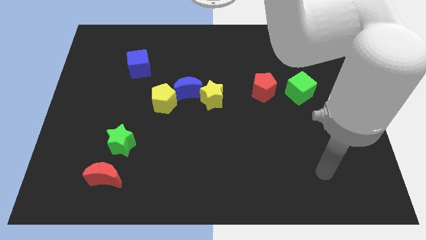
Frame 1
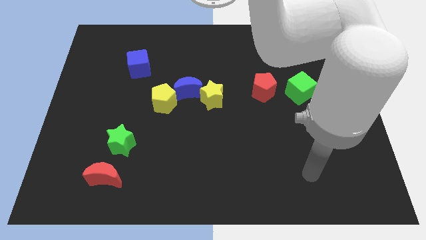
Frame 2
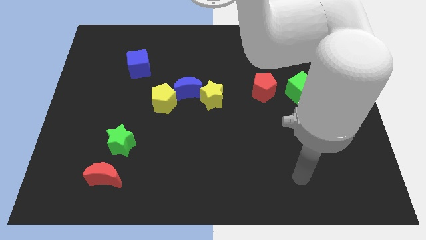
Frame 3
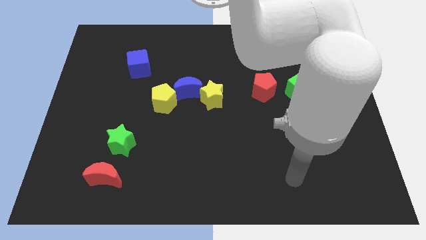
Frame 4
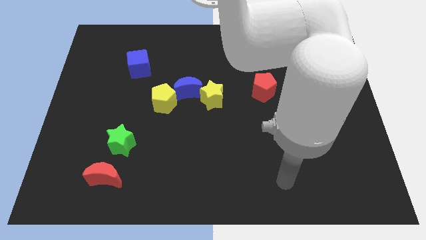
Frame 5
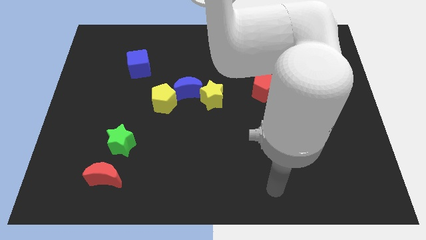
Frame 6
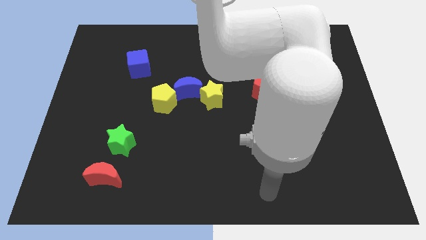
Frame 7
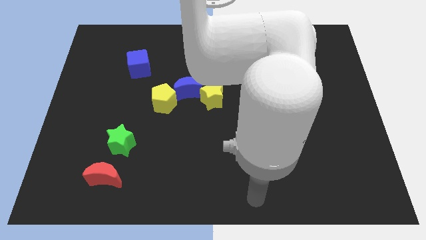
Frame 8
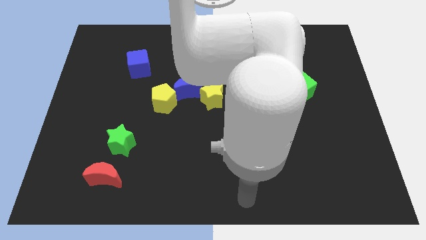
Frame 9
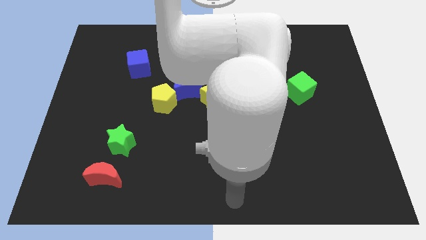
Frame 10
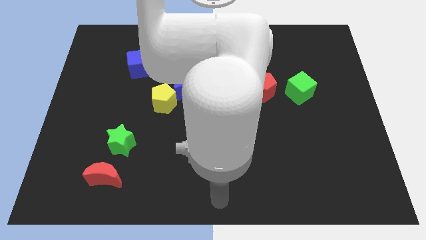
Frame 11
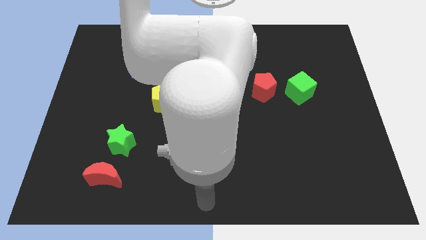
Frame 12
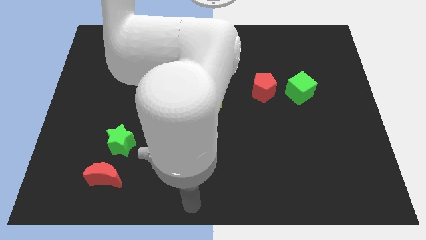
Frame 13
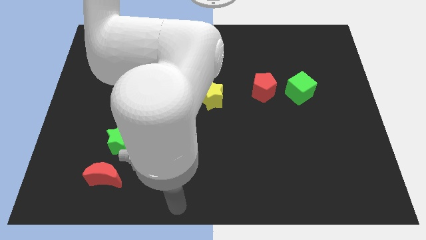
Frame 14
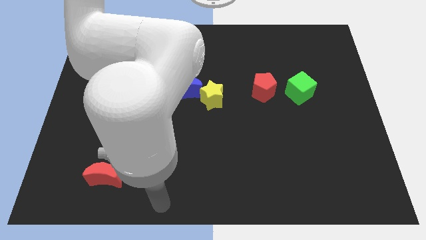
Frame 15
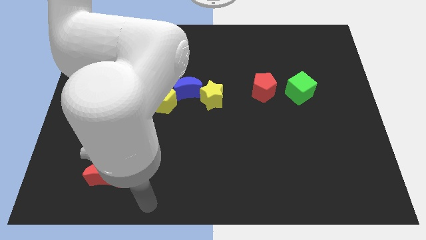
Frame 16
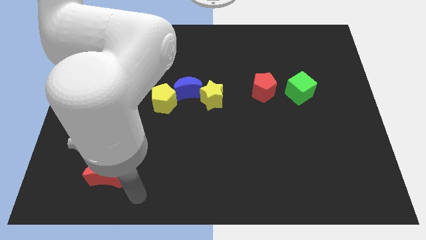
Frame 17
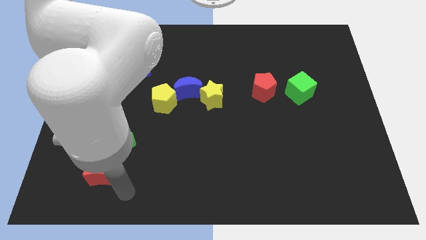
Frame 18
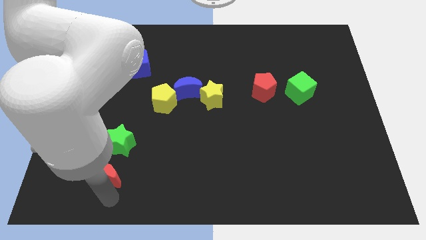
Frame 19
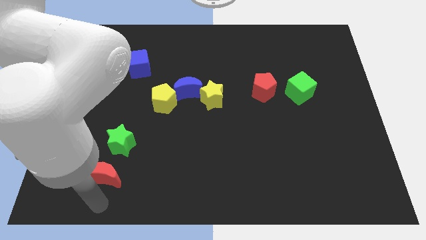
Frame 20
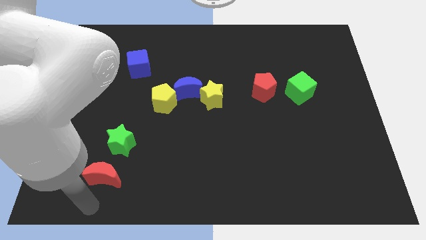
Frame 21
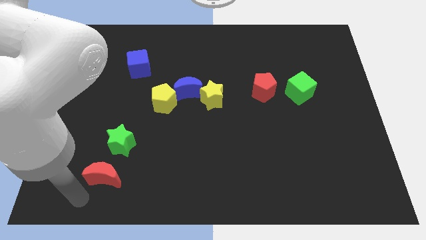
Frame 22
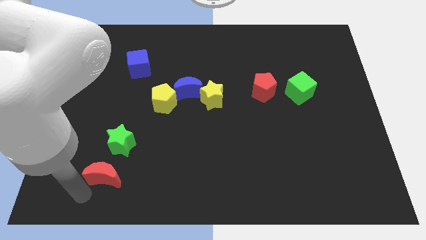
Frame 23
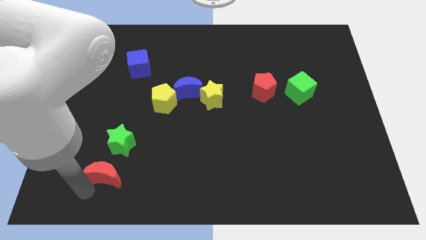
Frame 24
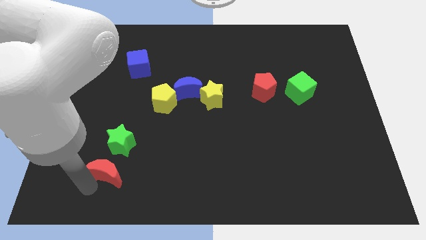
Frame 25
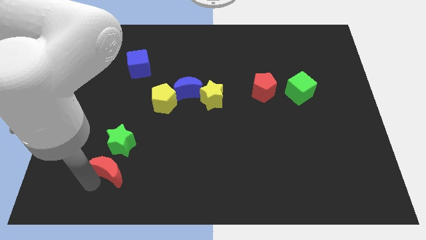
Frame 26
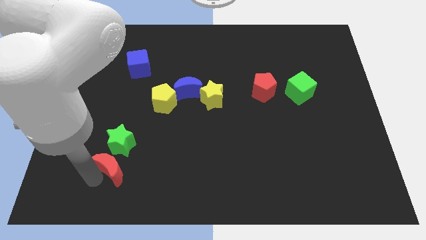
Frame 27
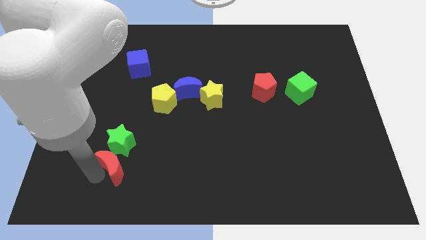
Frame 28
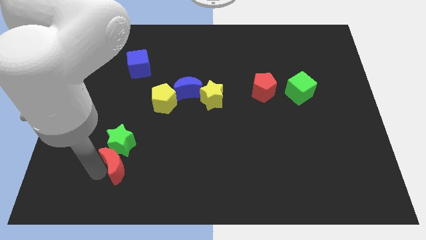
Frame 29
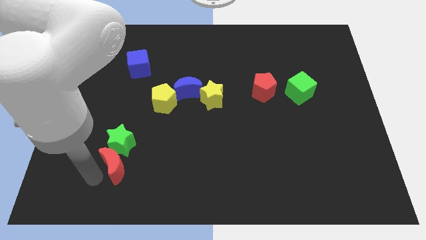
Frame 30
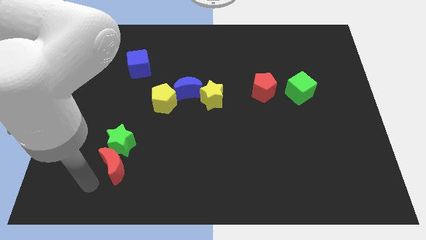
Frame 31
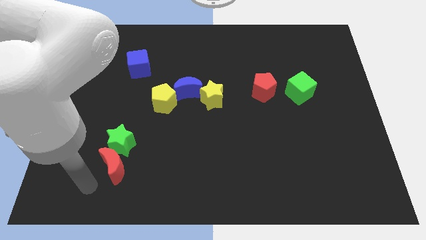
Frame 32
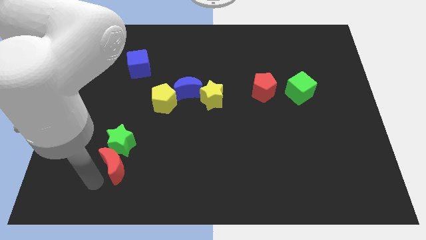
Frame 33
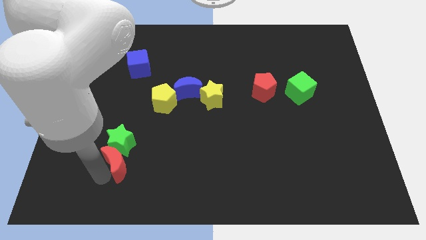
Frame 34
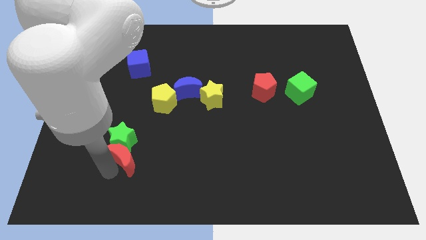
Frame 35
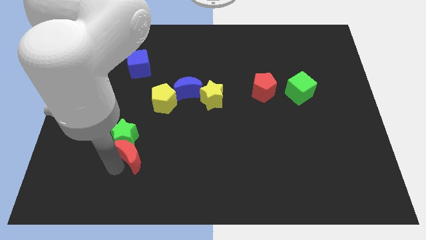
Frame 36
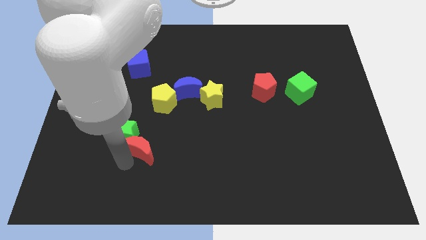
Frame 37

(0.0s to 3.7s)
move the red moon a little bit up and then to the right

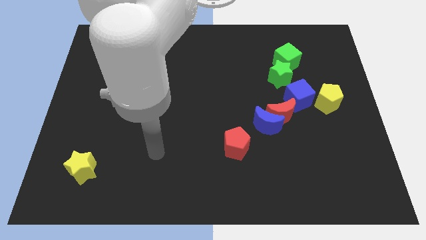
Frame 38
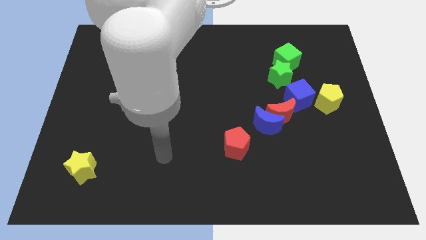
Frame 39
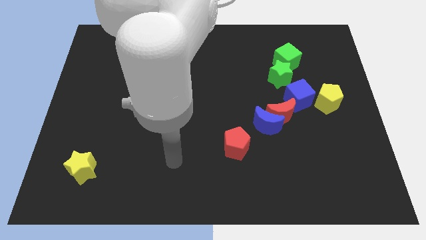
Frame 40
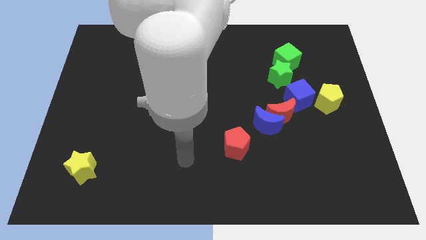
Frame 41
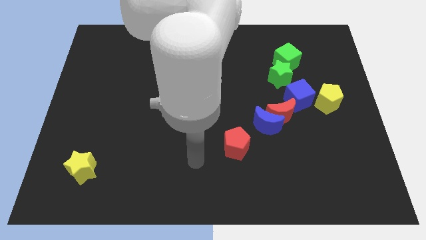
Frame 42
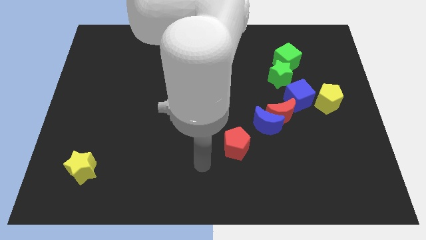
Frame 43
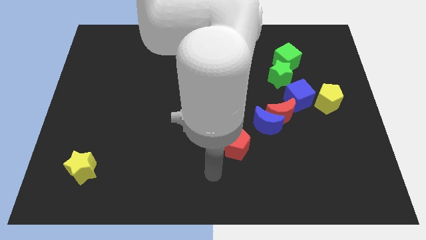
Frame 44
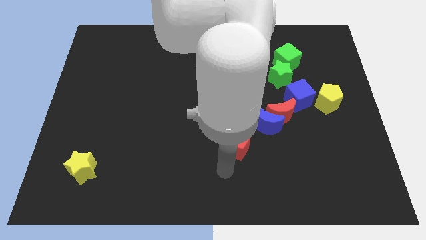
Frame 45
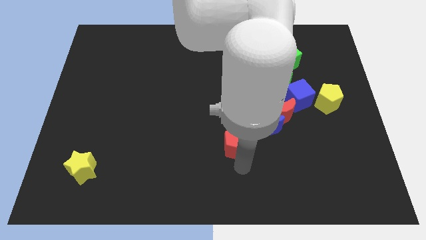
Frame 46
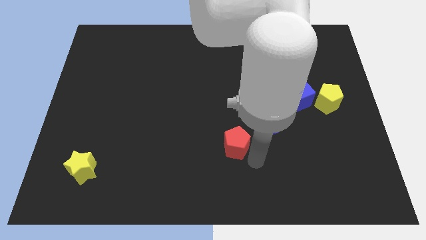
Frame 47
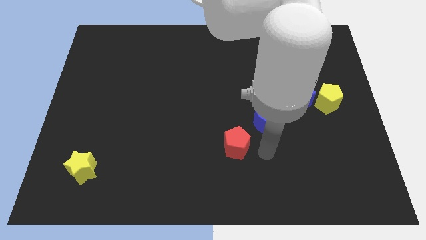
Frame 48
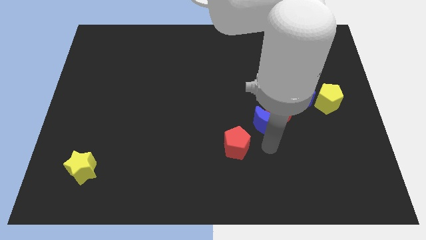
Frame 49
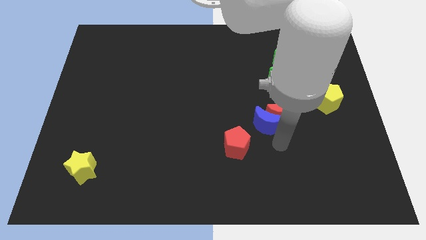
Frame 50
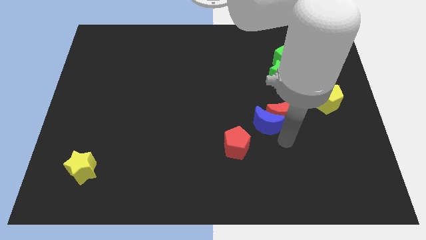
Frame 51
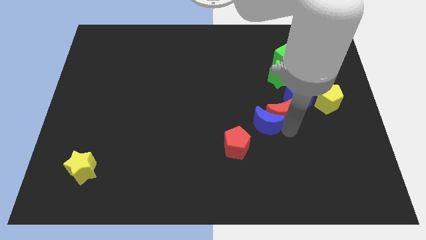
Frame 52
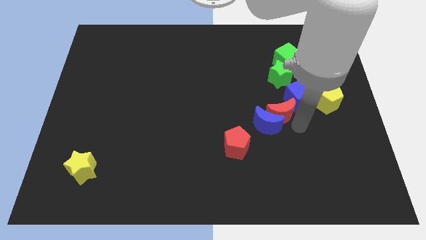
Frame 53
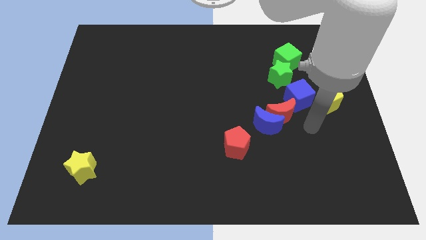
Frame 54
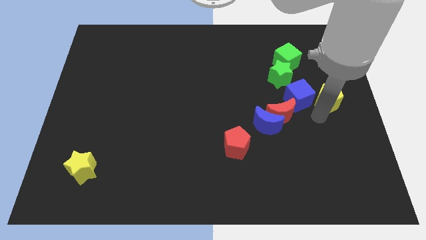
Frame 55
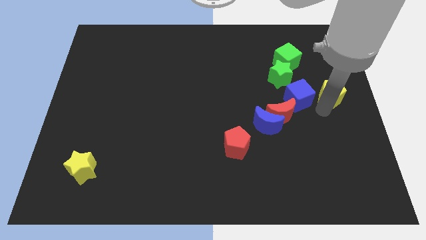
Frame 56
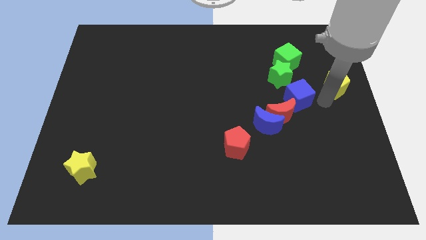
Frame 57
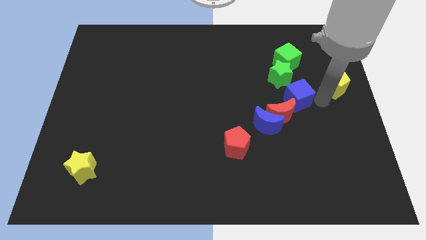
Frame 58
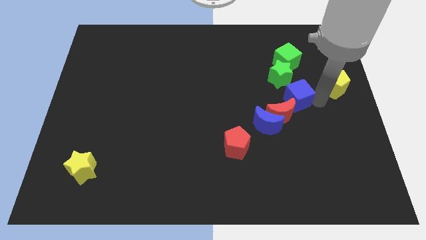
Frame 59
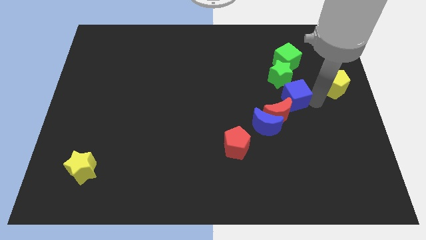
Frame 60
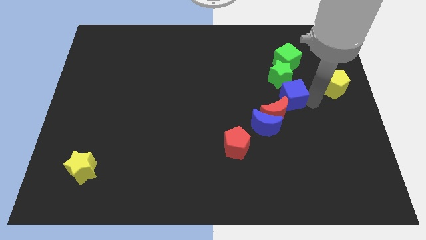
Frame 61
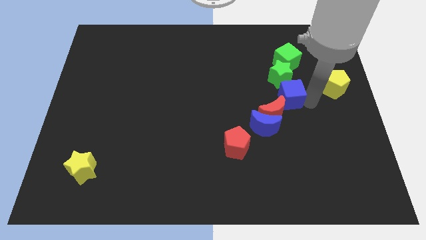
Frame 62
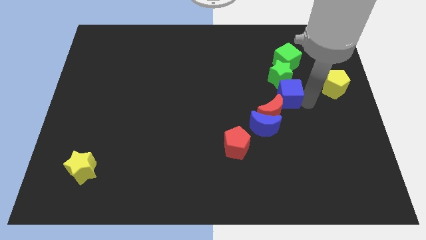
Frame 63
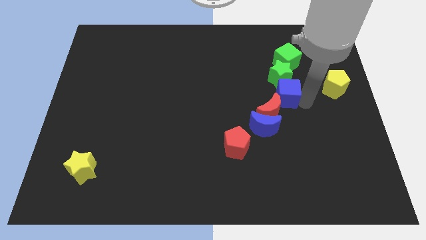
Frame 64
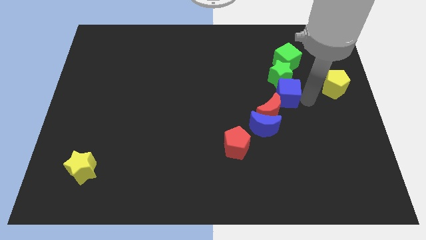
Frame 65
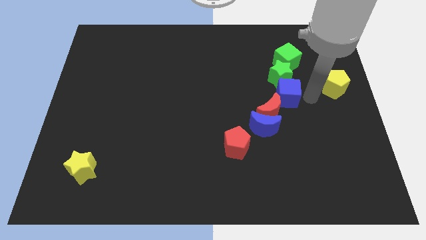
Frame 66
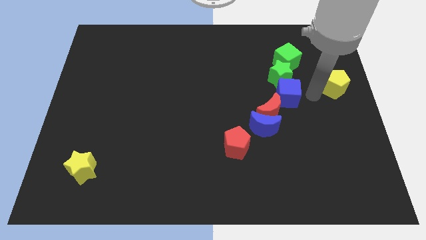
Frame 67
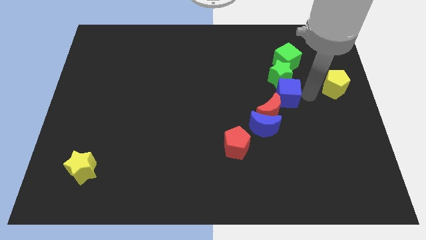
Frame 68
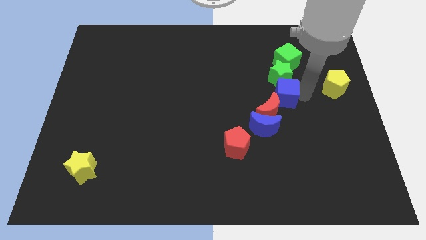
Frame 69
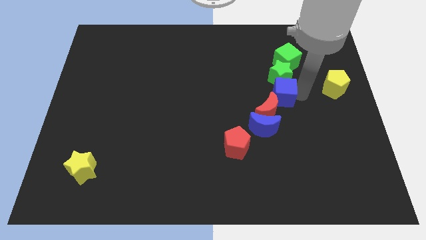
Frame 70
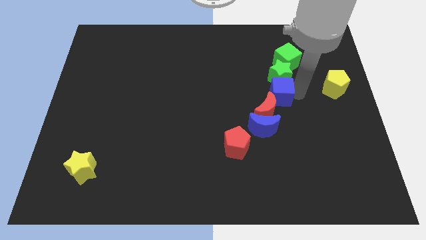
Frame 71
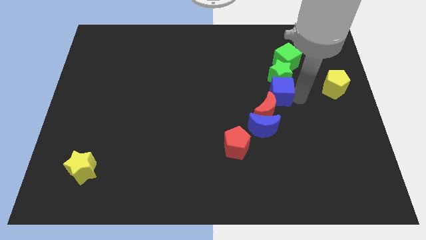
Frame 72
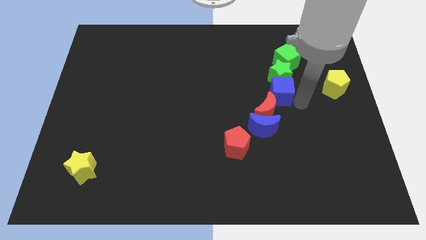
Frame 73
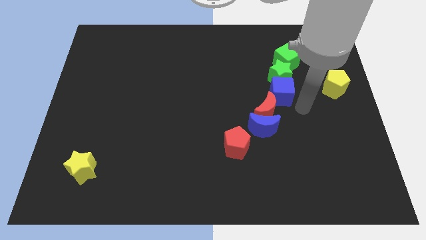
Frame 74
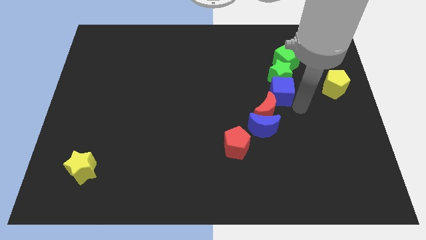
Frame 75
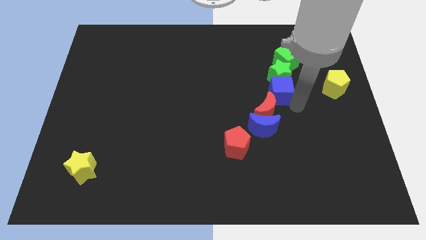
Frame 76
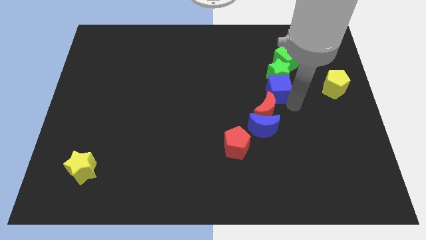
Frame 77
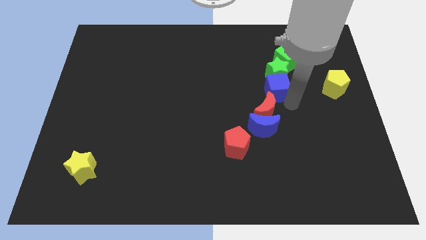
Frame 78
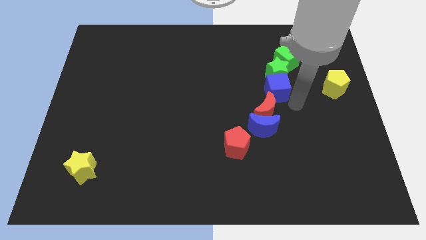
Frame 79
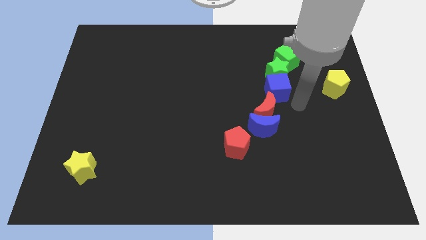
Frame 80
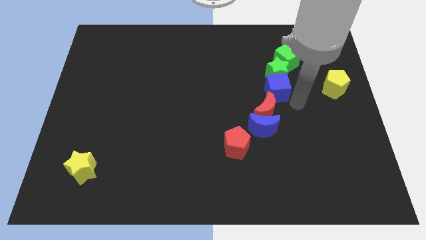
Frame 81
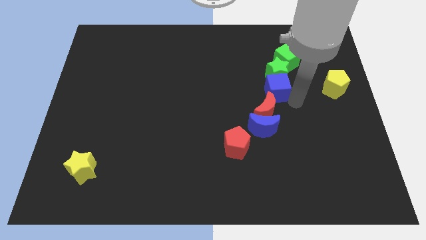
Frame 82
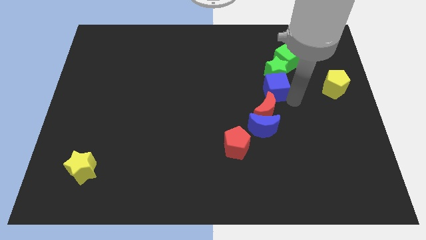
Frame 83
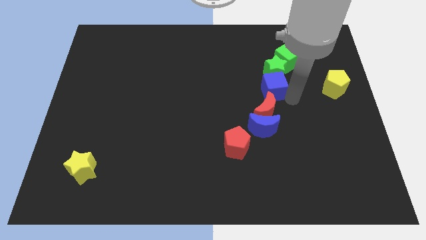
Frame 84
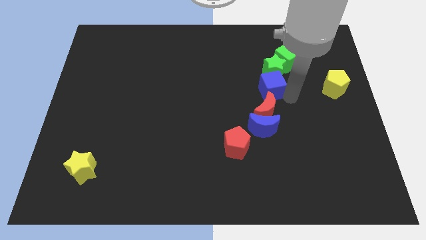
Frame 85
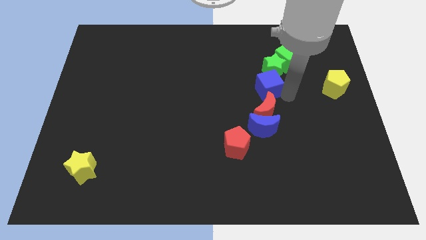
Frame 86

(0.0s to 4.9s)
move the blue cube slightly up and then to the left
